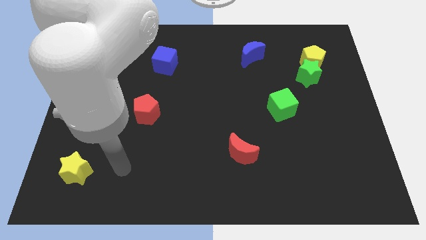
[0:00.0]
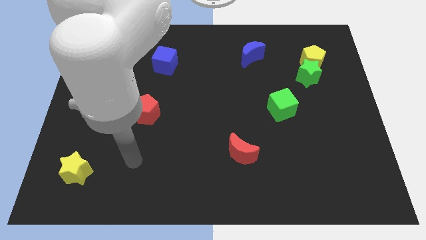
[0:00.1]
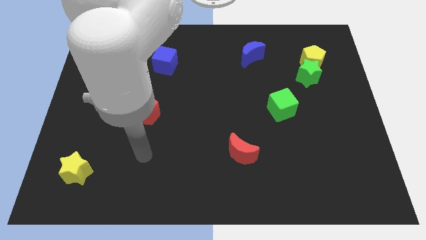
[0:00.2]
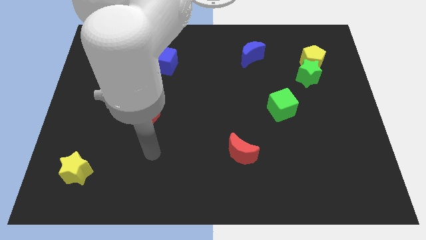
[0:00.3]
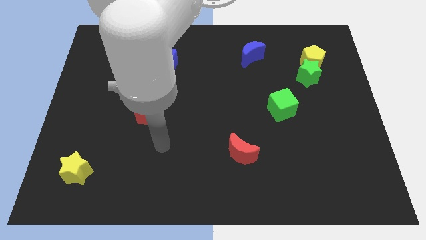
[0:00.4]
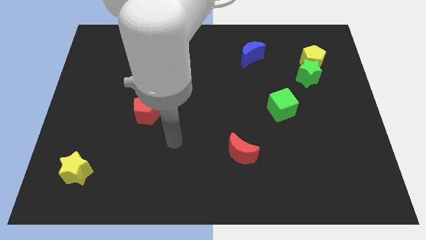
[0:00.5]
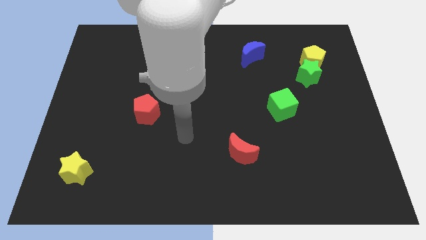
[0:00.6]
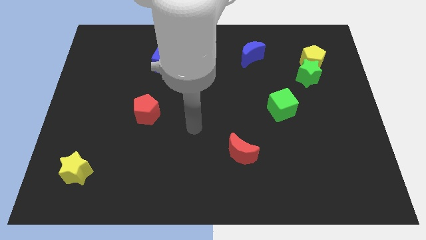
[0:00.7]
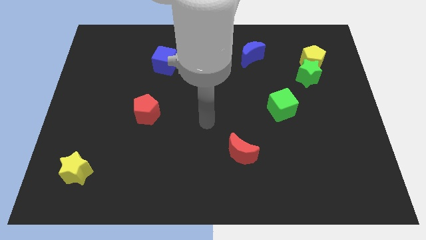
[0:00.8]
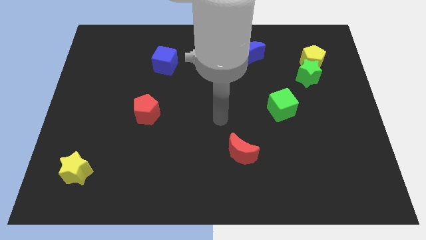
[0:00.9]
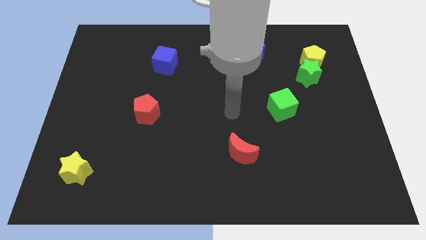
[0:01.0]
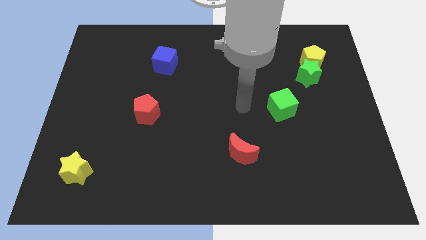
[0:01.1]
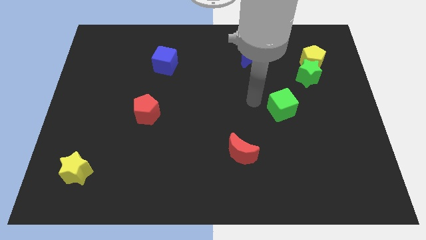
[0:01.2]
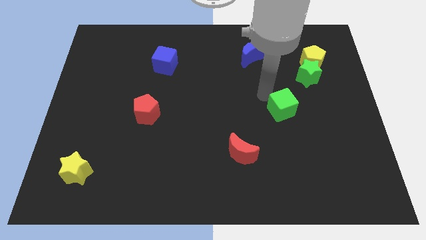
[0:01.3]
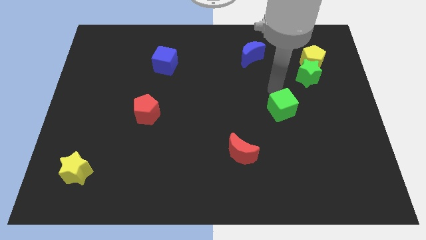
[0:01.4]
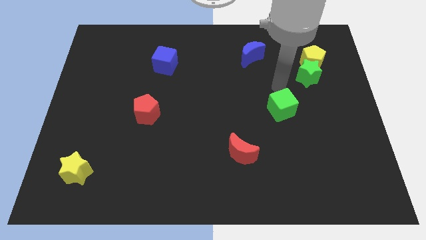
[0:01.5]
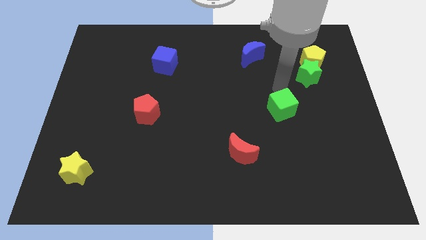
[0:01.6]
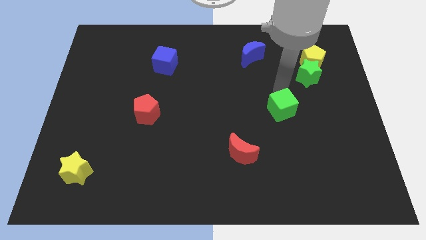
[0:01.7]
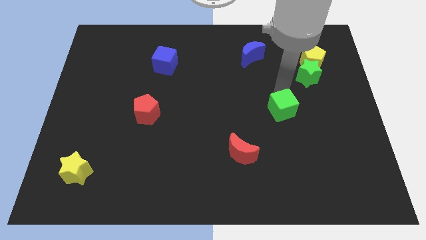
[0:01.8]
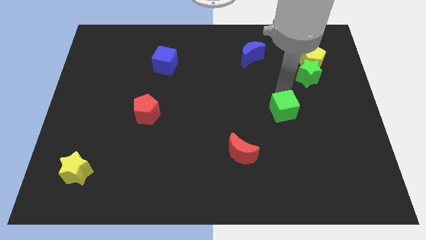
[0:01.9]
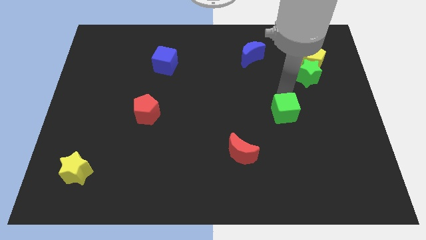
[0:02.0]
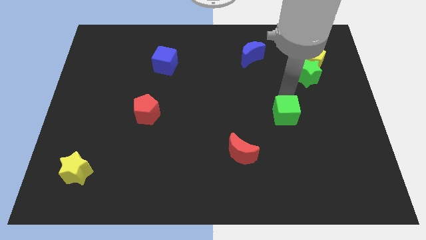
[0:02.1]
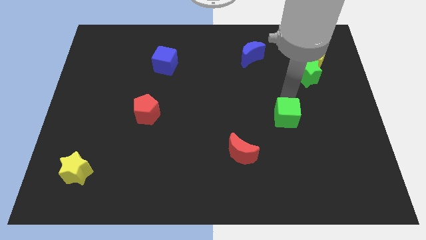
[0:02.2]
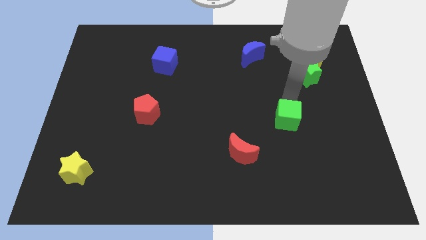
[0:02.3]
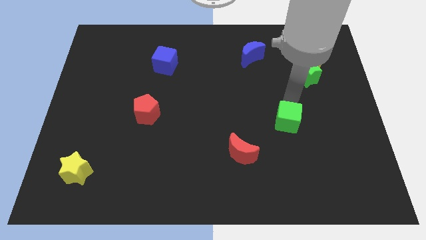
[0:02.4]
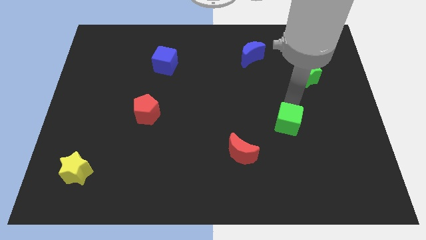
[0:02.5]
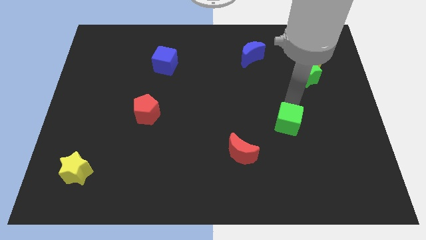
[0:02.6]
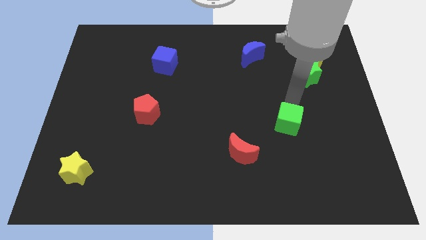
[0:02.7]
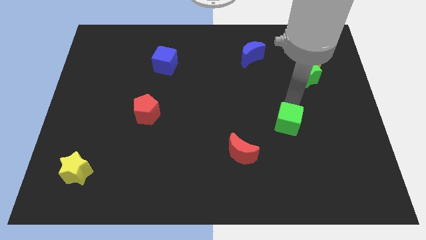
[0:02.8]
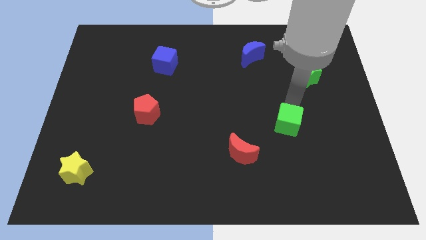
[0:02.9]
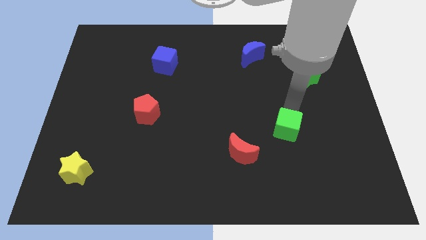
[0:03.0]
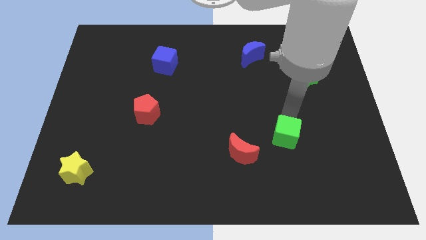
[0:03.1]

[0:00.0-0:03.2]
slightly move the green cube down

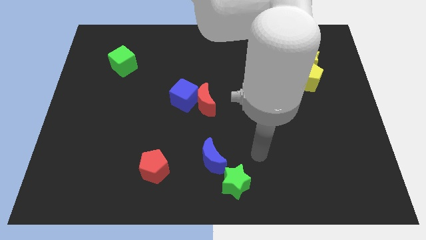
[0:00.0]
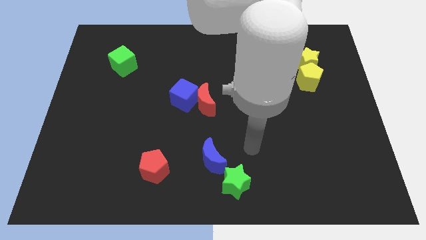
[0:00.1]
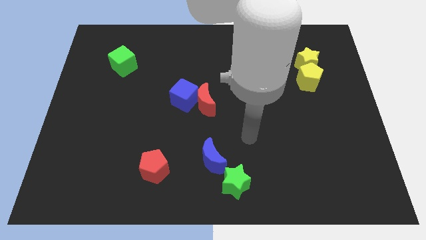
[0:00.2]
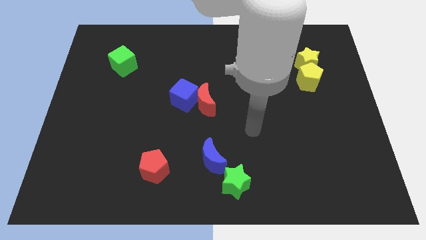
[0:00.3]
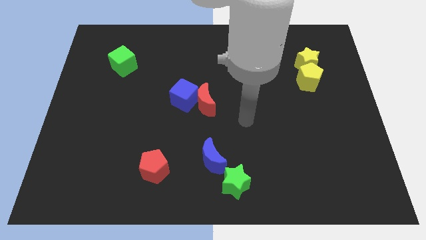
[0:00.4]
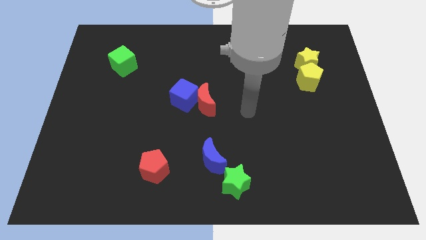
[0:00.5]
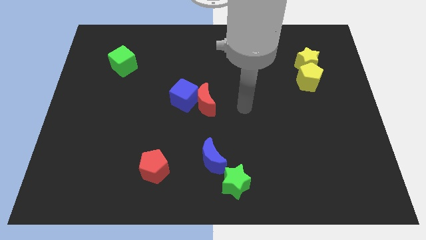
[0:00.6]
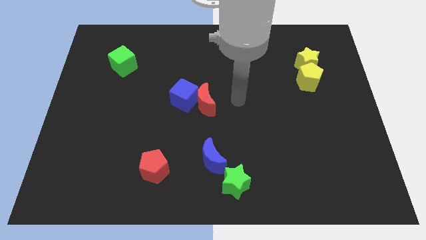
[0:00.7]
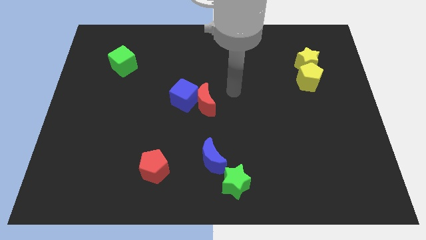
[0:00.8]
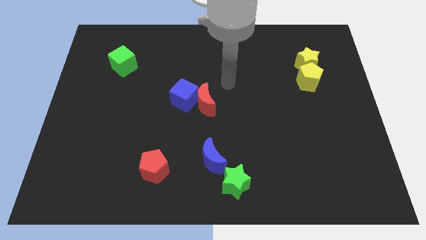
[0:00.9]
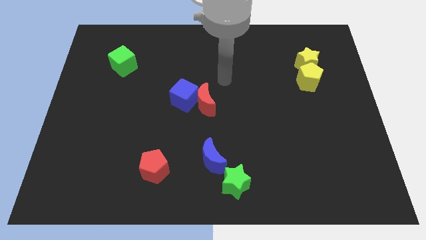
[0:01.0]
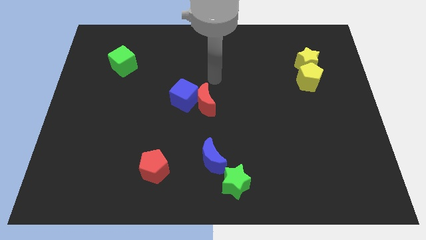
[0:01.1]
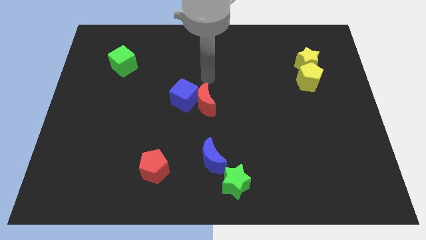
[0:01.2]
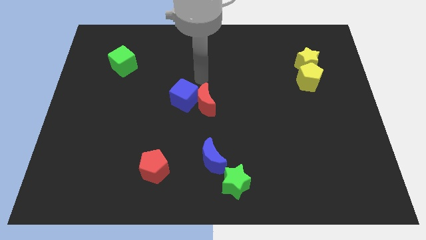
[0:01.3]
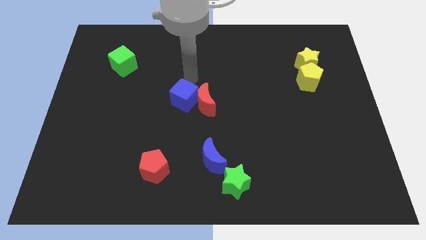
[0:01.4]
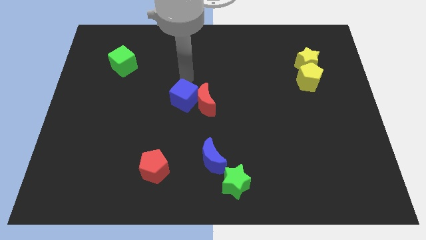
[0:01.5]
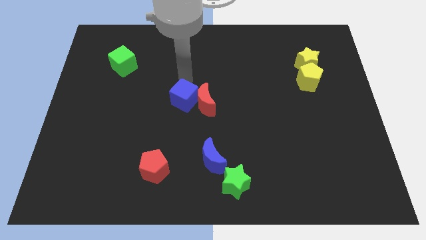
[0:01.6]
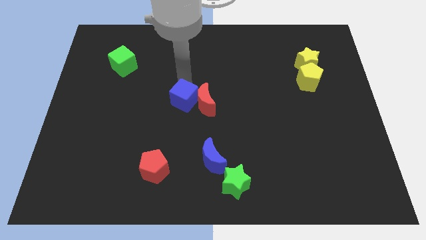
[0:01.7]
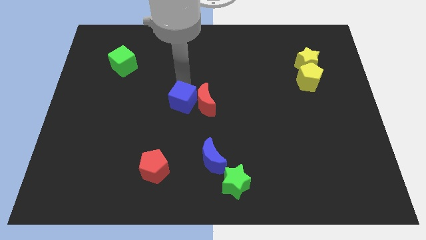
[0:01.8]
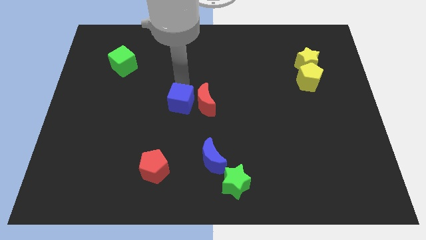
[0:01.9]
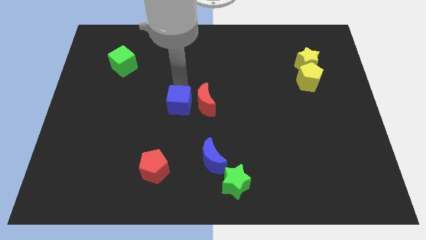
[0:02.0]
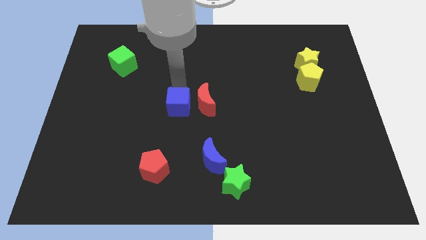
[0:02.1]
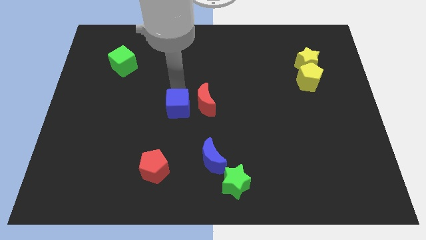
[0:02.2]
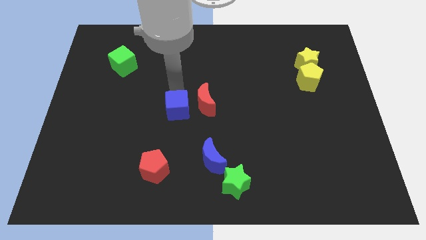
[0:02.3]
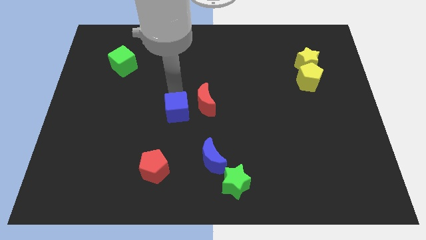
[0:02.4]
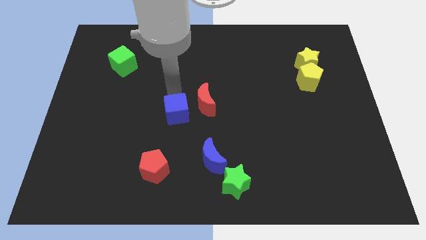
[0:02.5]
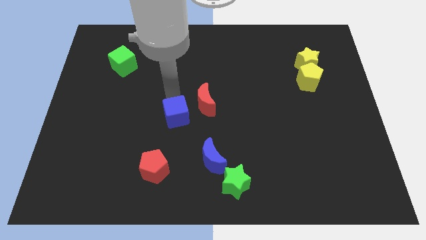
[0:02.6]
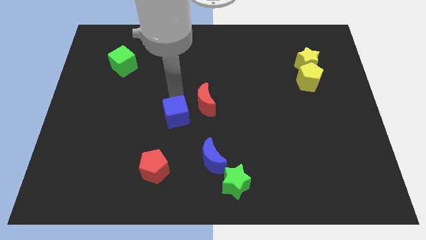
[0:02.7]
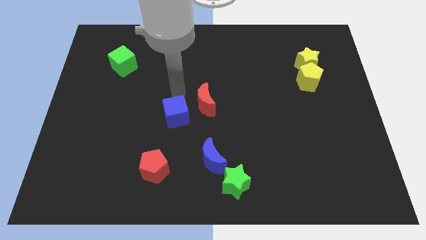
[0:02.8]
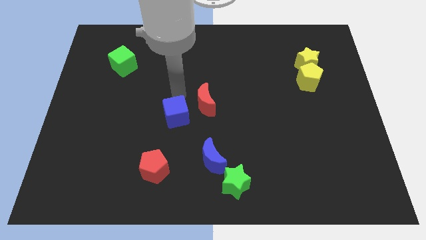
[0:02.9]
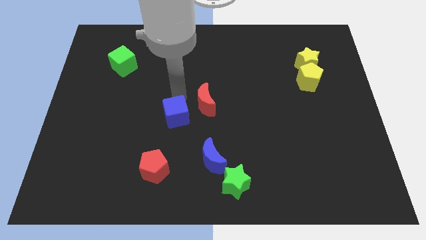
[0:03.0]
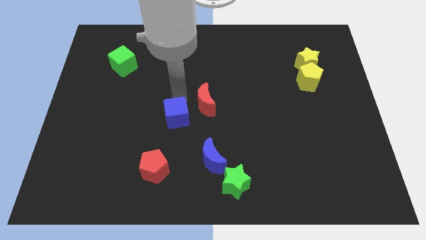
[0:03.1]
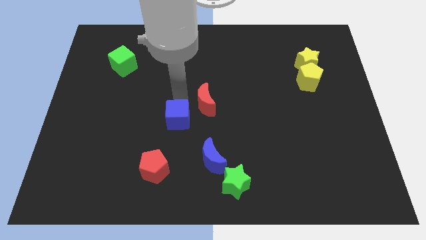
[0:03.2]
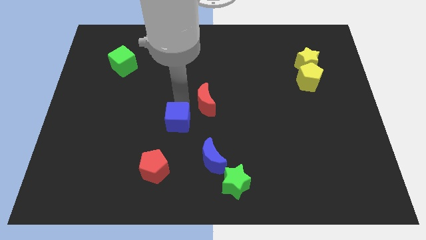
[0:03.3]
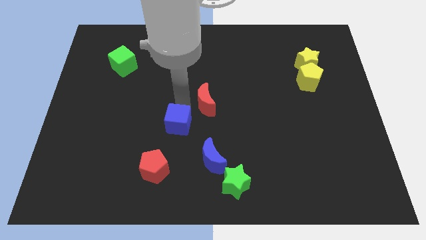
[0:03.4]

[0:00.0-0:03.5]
push the blue cube a little downwards

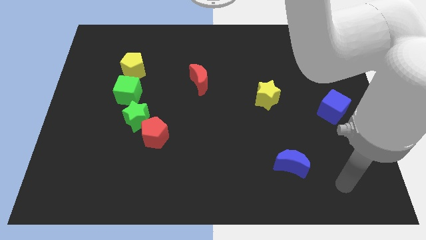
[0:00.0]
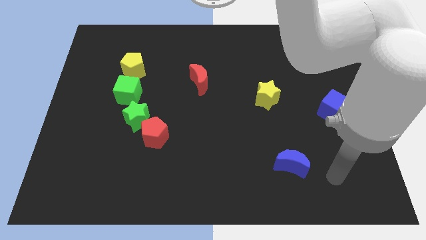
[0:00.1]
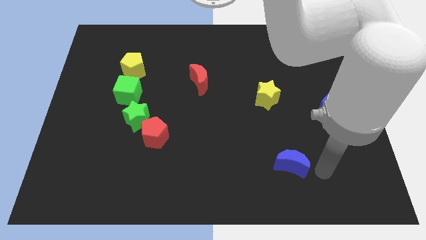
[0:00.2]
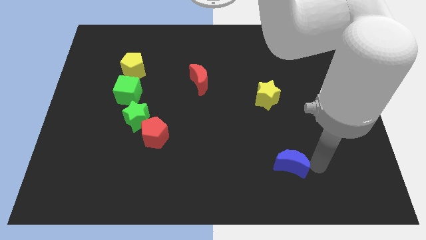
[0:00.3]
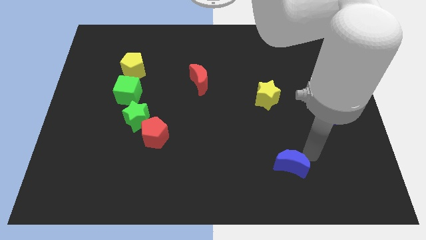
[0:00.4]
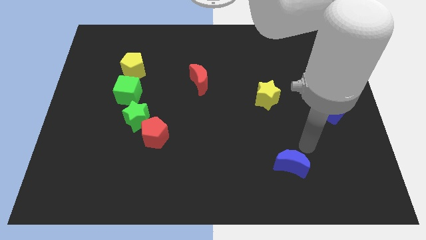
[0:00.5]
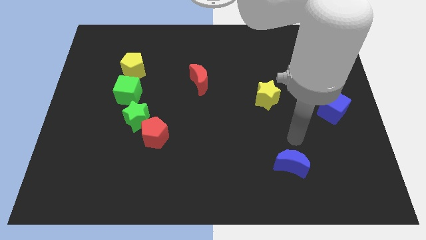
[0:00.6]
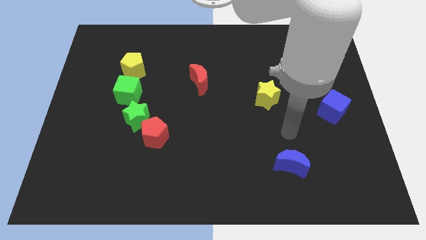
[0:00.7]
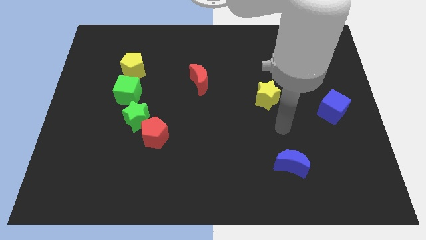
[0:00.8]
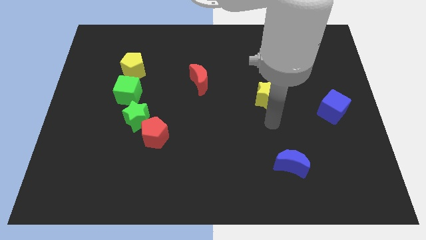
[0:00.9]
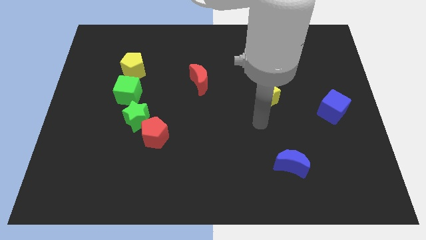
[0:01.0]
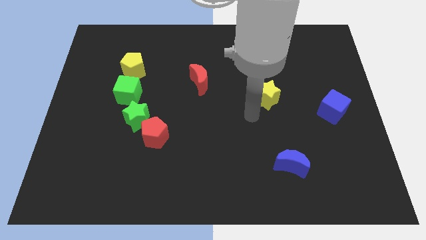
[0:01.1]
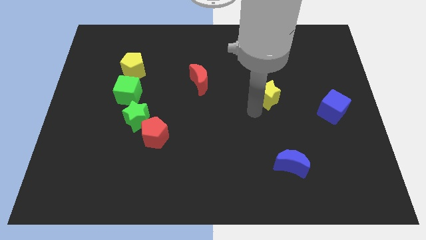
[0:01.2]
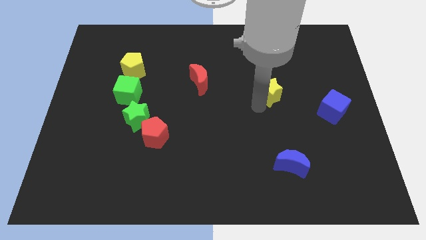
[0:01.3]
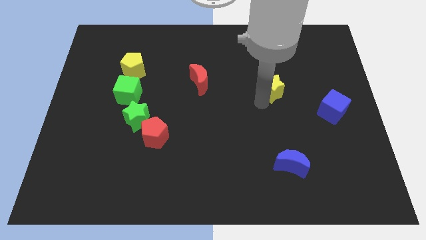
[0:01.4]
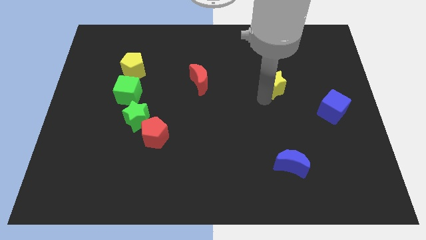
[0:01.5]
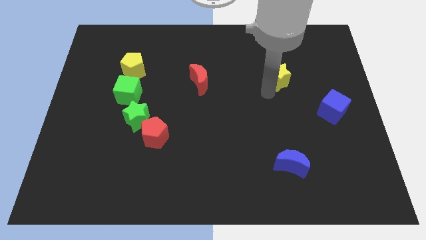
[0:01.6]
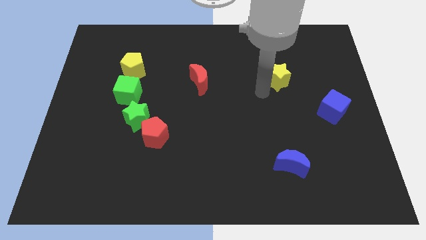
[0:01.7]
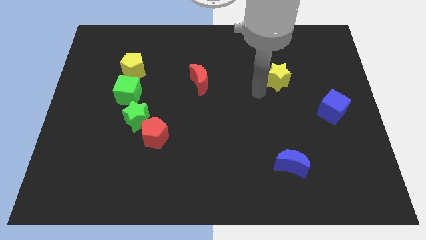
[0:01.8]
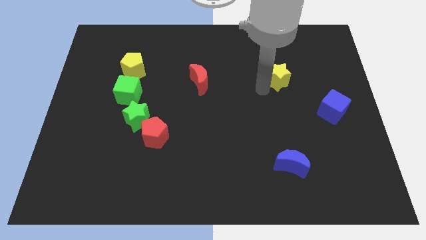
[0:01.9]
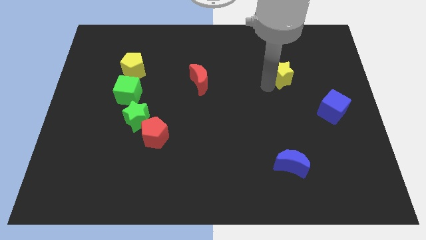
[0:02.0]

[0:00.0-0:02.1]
slide the yellow star somewhat upwards and to the right
